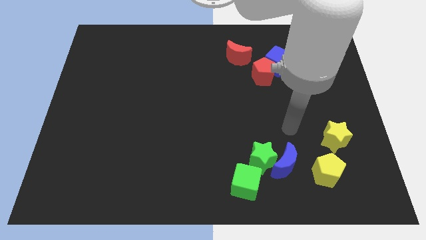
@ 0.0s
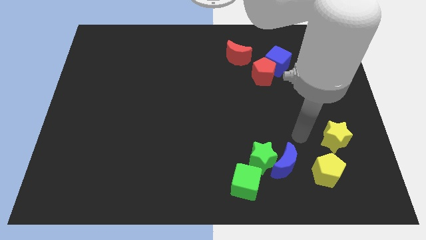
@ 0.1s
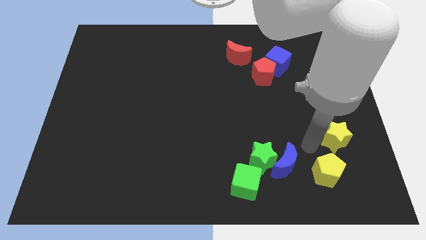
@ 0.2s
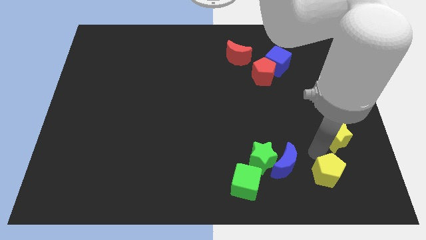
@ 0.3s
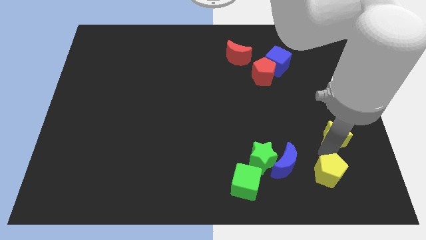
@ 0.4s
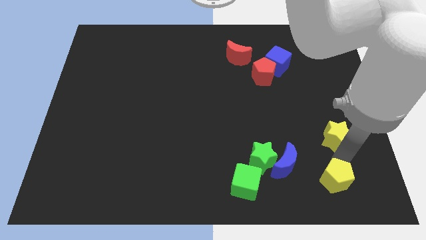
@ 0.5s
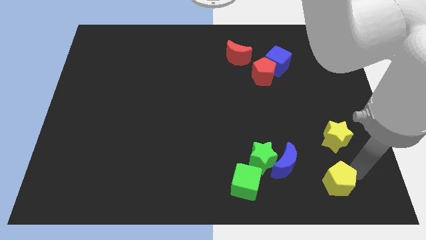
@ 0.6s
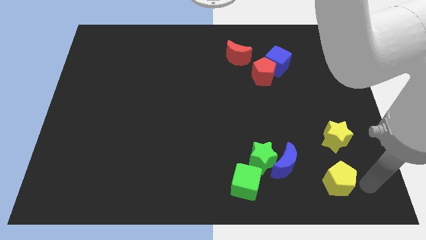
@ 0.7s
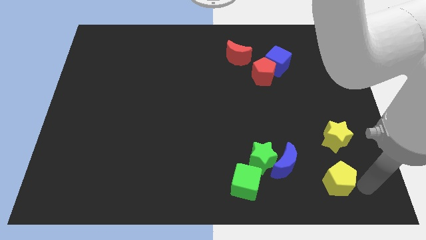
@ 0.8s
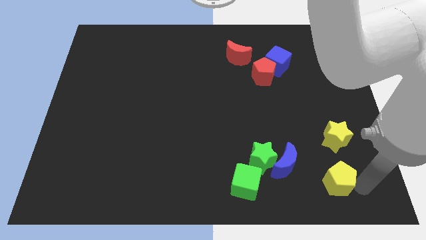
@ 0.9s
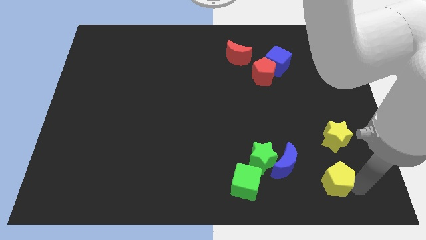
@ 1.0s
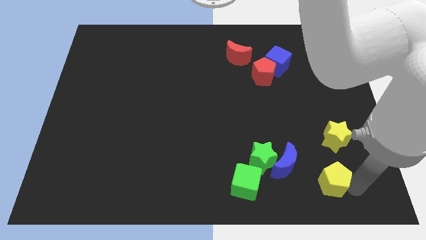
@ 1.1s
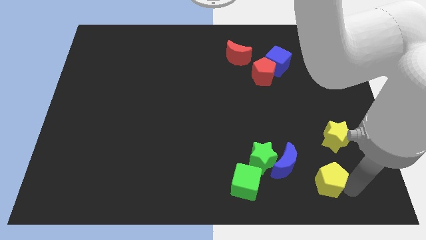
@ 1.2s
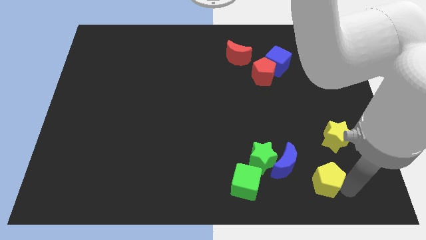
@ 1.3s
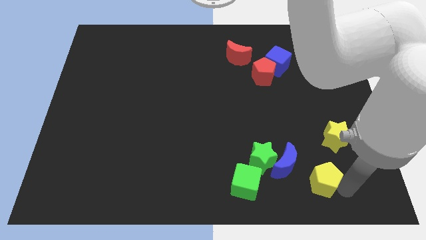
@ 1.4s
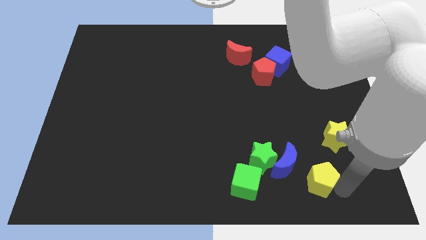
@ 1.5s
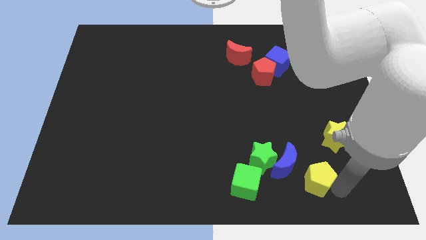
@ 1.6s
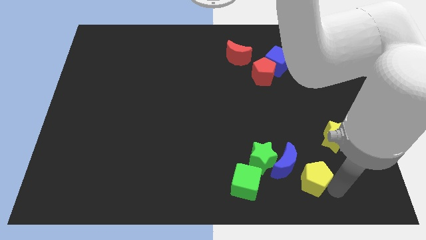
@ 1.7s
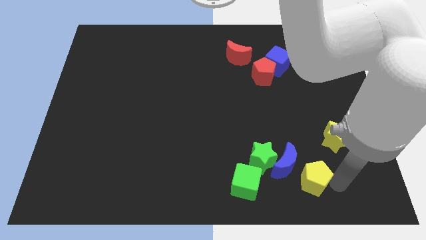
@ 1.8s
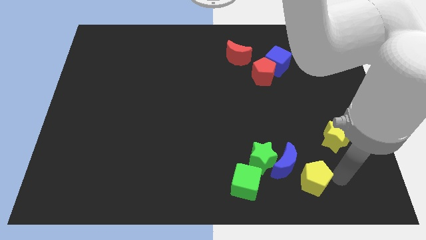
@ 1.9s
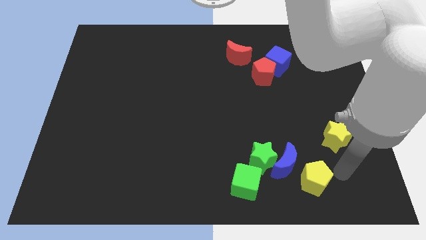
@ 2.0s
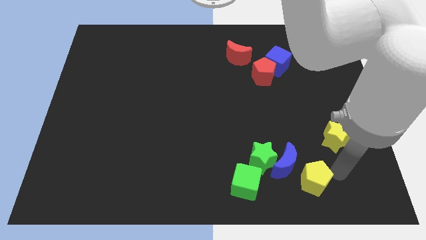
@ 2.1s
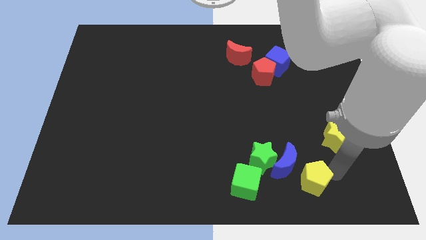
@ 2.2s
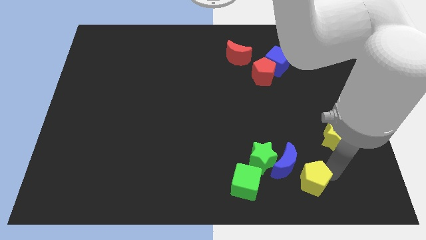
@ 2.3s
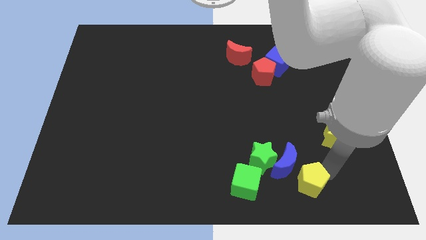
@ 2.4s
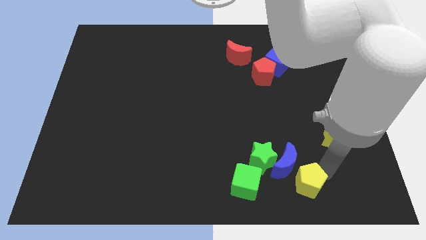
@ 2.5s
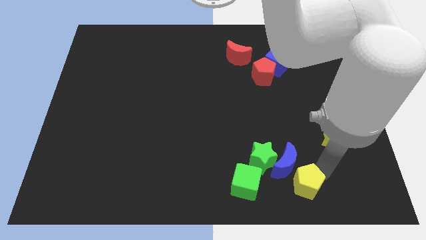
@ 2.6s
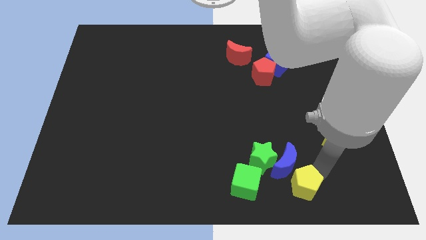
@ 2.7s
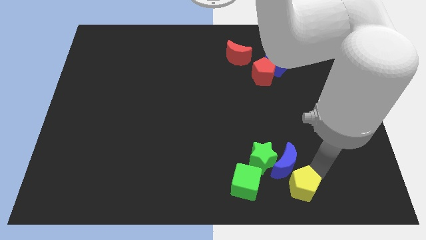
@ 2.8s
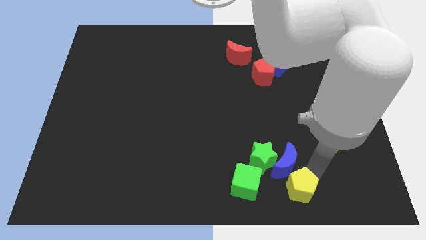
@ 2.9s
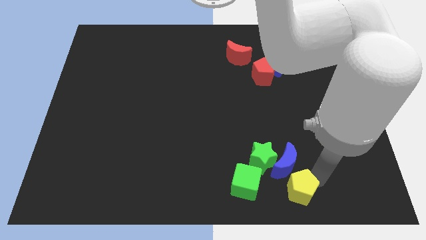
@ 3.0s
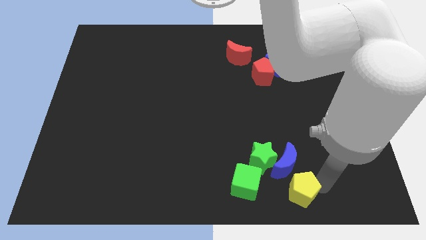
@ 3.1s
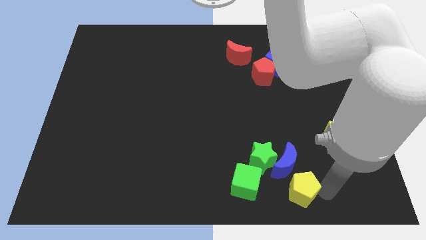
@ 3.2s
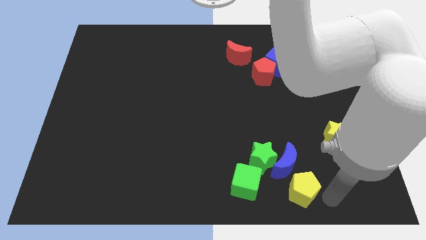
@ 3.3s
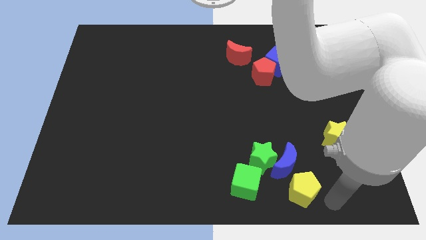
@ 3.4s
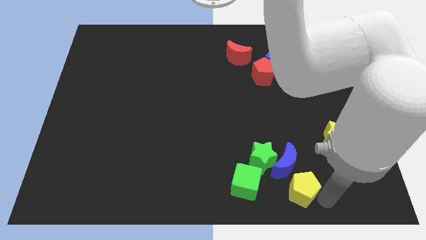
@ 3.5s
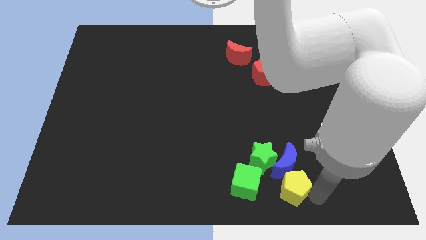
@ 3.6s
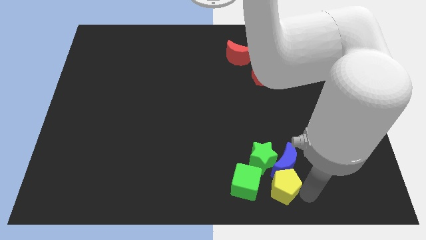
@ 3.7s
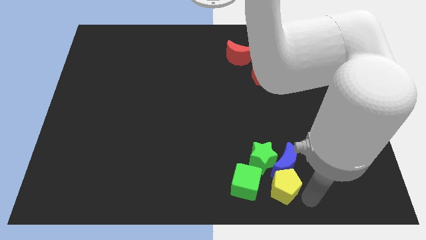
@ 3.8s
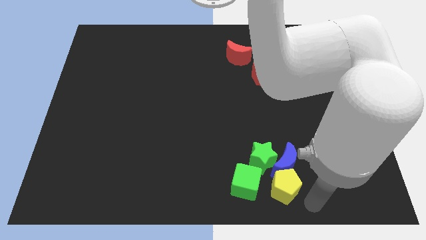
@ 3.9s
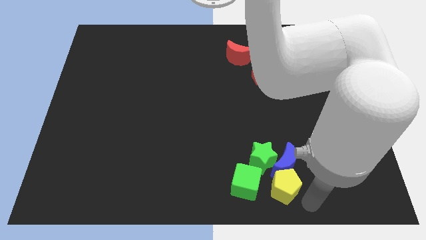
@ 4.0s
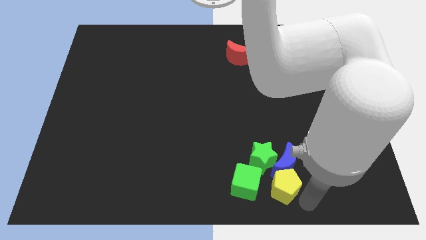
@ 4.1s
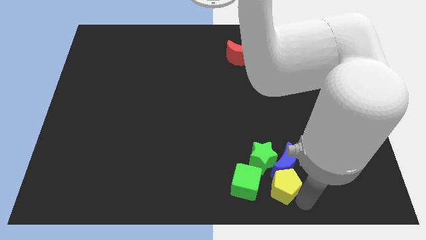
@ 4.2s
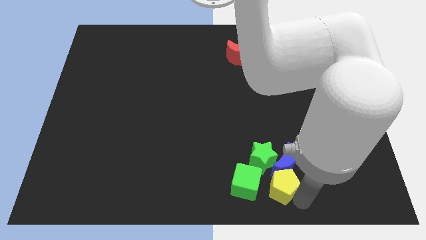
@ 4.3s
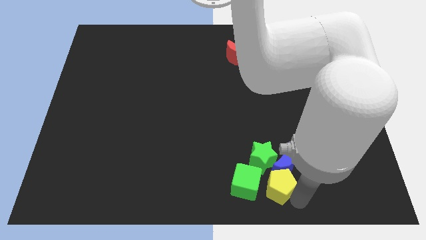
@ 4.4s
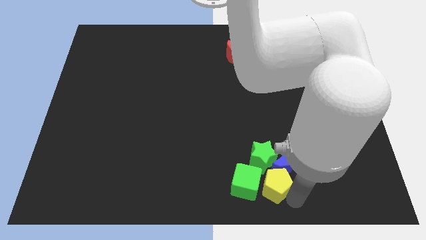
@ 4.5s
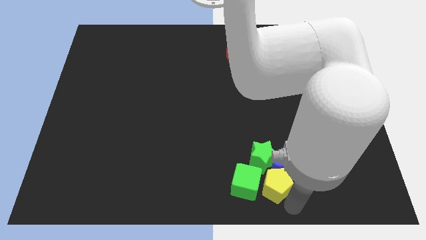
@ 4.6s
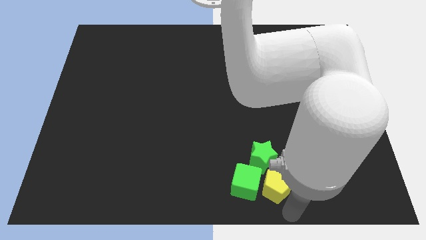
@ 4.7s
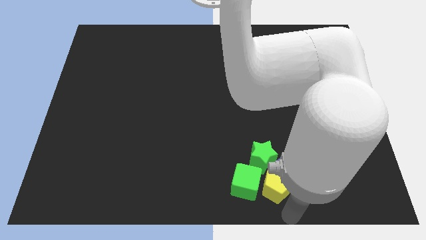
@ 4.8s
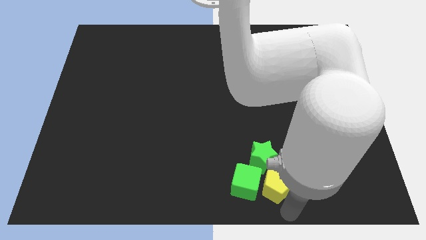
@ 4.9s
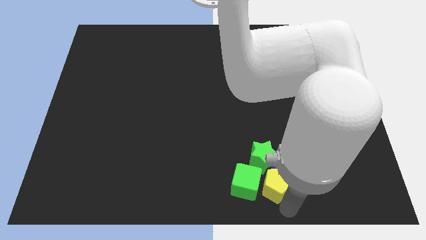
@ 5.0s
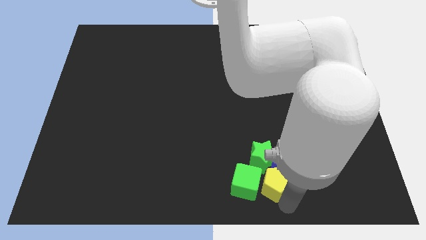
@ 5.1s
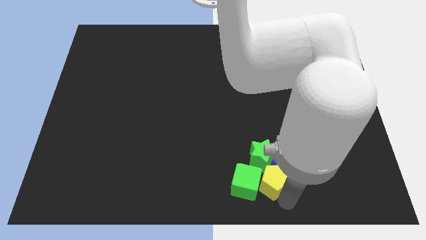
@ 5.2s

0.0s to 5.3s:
push the yellow pentagon next to the green star

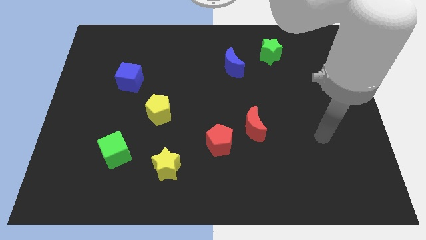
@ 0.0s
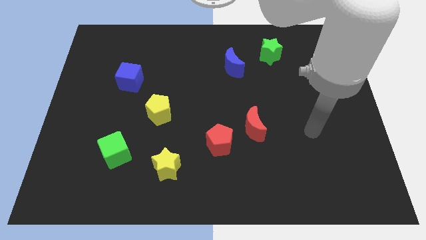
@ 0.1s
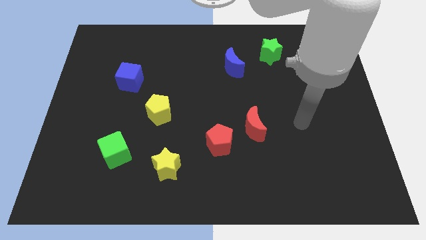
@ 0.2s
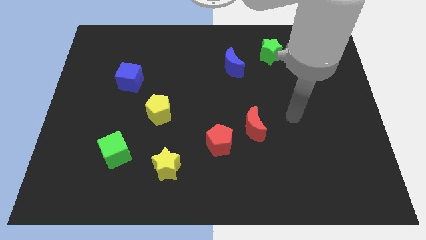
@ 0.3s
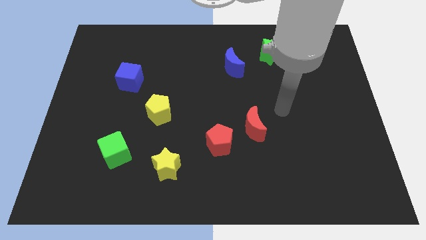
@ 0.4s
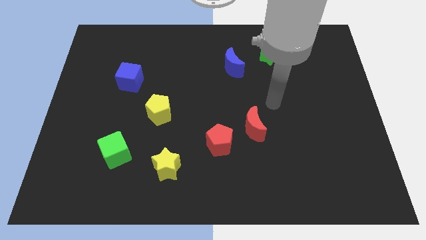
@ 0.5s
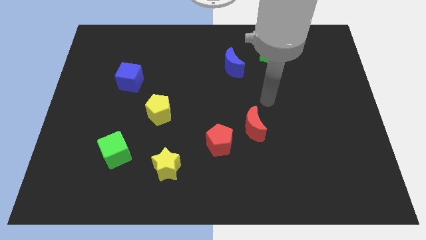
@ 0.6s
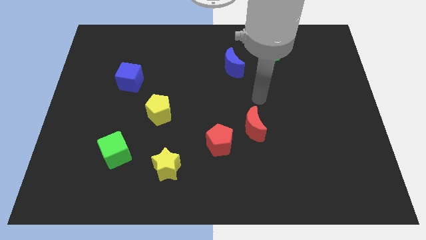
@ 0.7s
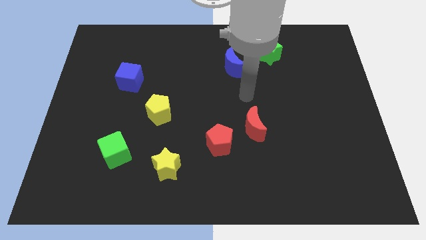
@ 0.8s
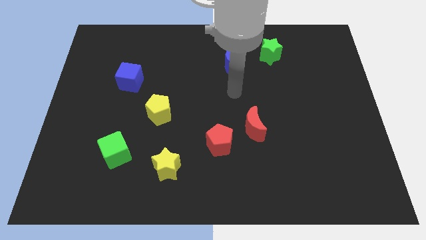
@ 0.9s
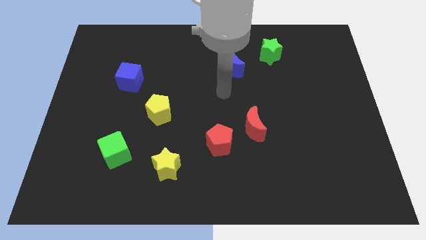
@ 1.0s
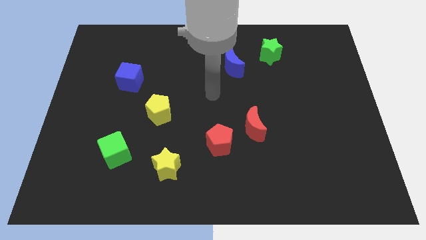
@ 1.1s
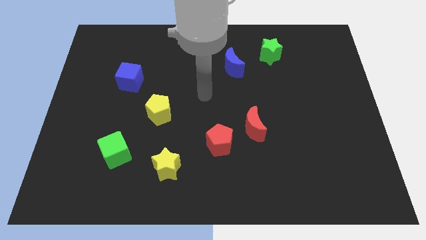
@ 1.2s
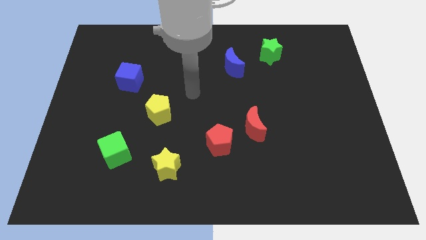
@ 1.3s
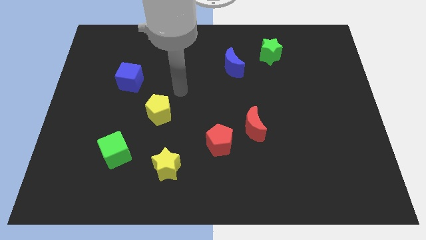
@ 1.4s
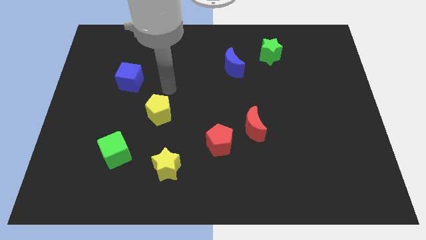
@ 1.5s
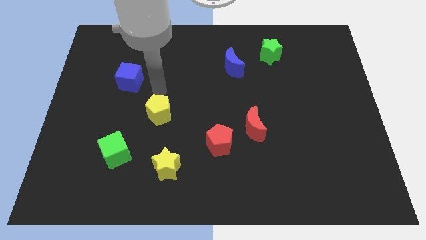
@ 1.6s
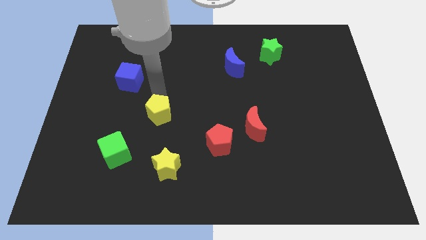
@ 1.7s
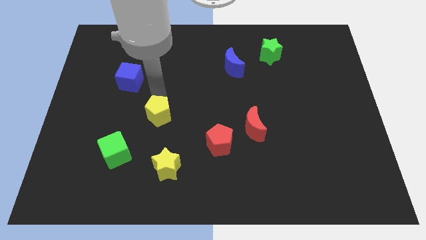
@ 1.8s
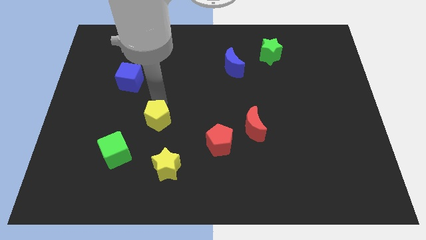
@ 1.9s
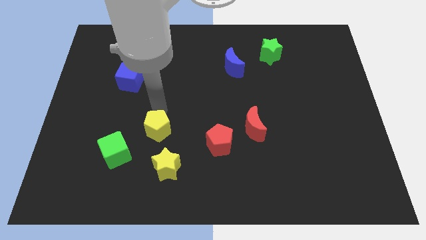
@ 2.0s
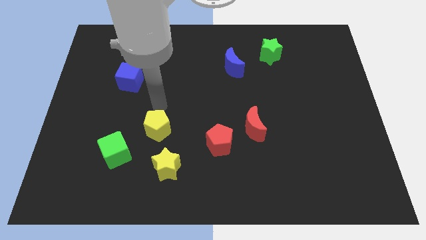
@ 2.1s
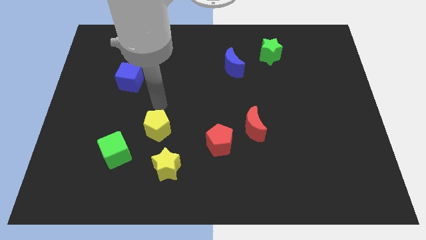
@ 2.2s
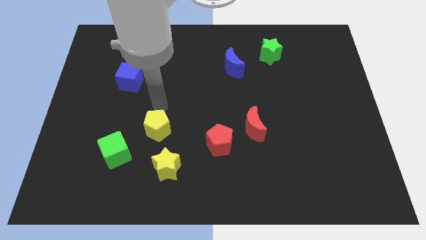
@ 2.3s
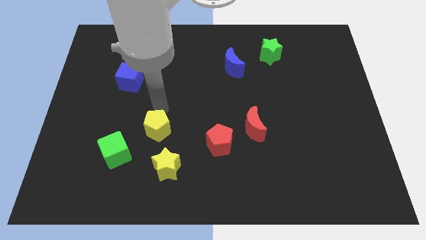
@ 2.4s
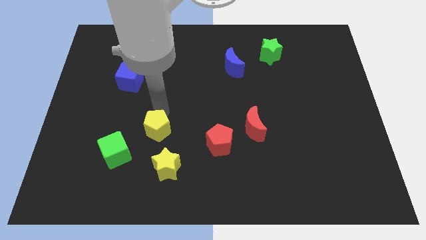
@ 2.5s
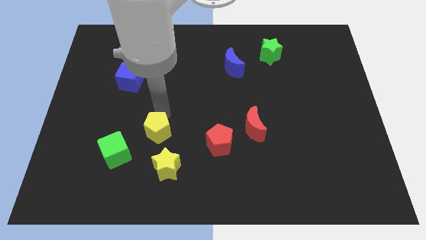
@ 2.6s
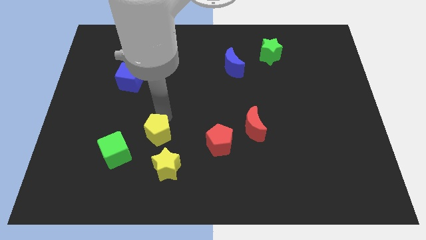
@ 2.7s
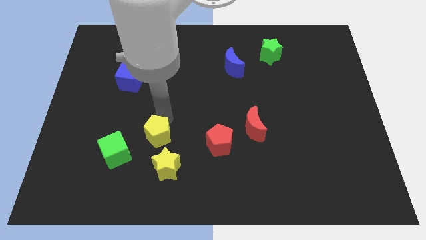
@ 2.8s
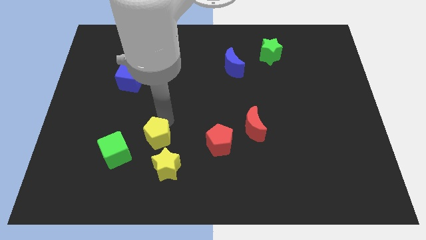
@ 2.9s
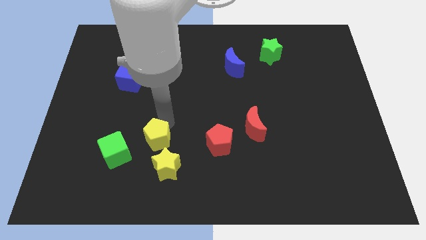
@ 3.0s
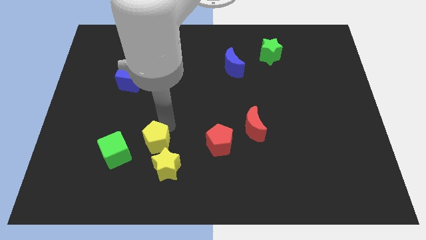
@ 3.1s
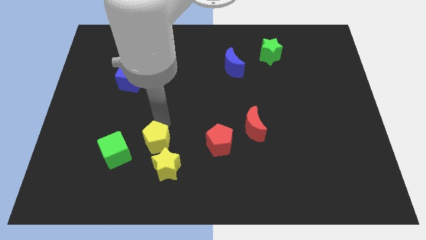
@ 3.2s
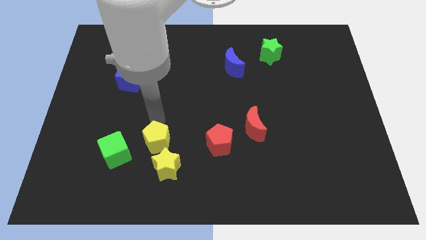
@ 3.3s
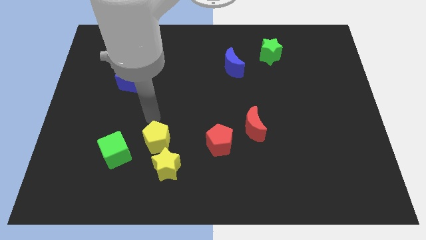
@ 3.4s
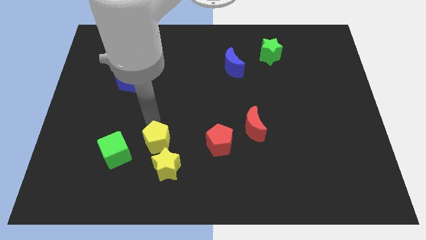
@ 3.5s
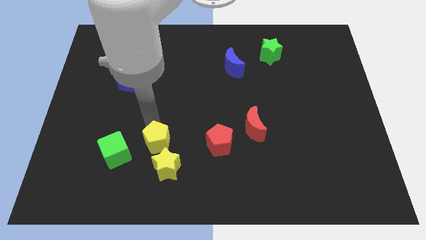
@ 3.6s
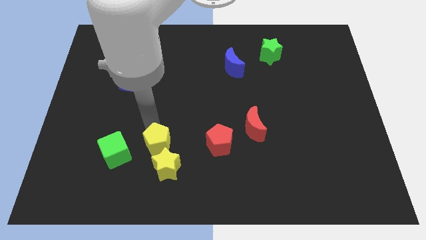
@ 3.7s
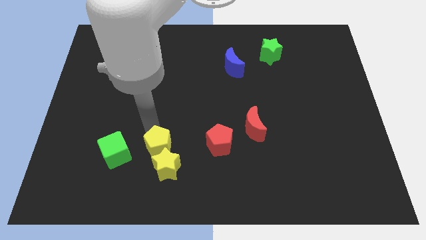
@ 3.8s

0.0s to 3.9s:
put the yellow pentagon to the yellow star
